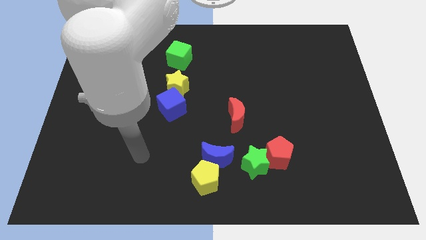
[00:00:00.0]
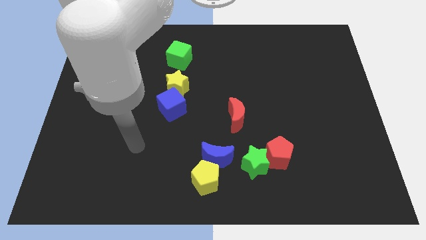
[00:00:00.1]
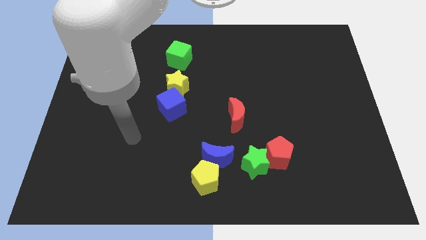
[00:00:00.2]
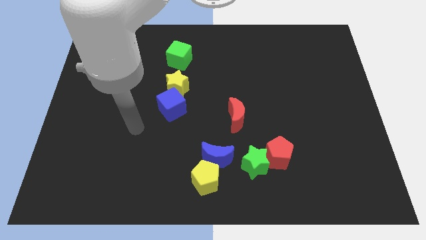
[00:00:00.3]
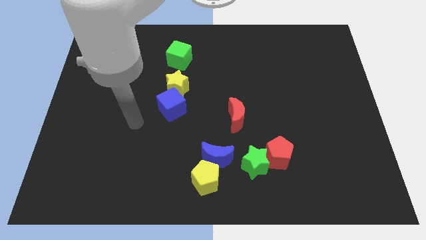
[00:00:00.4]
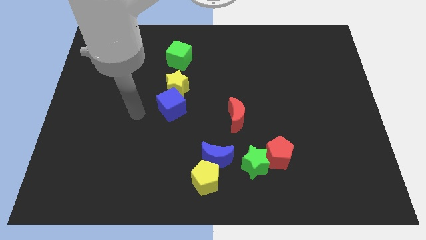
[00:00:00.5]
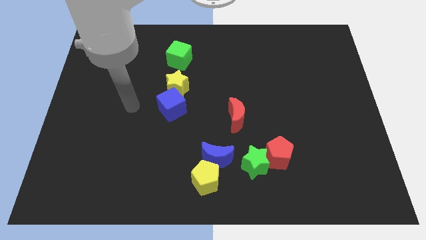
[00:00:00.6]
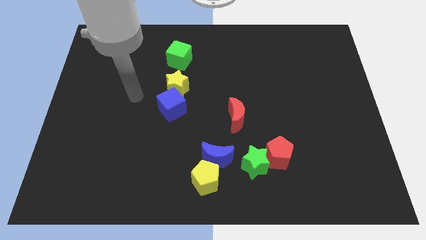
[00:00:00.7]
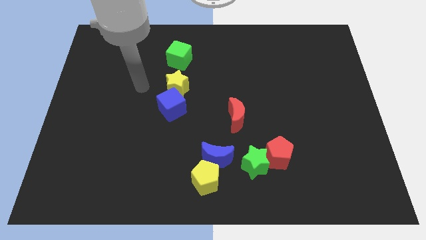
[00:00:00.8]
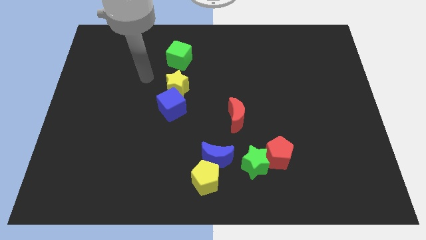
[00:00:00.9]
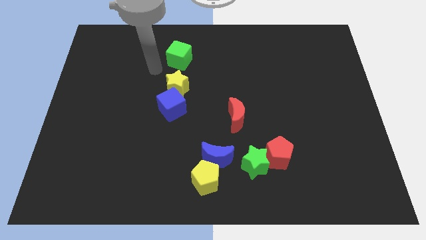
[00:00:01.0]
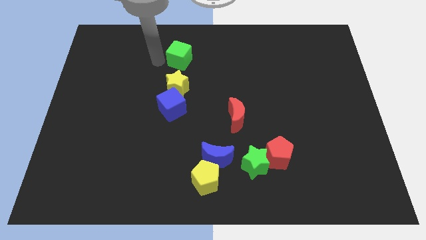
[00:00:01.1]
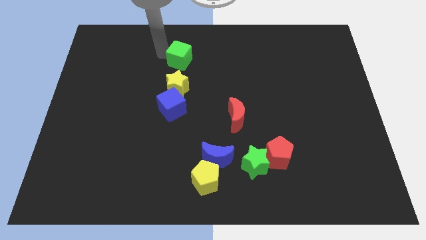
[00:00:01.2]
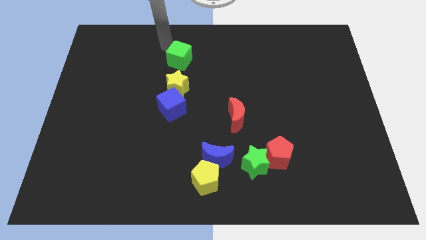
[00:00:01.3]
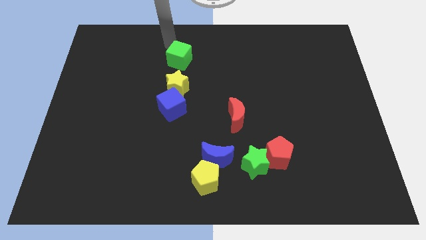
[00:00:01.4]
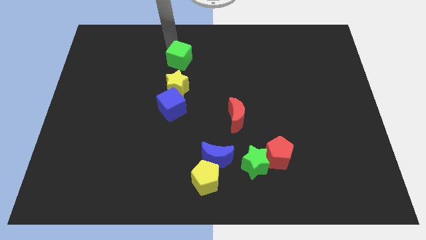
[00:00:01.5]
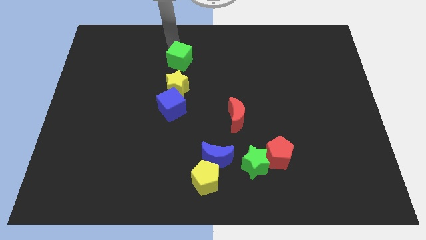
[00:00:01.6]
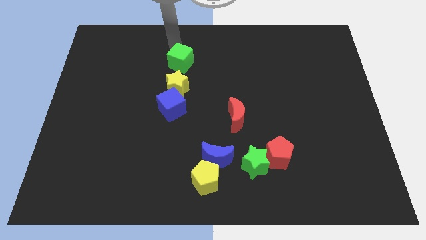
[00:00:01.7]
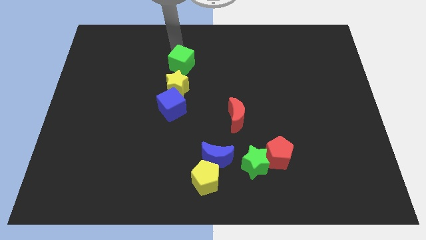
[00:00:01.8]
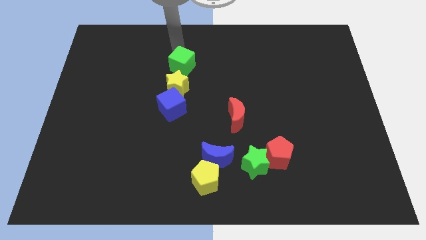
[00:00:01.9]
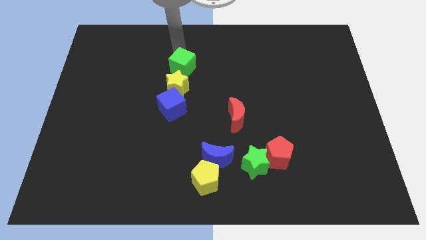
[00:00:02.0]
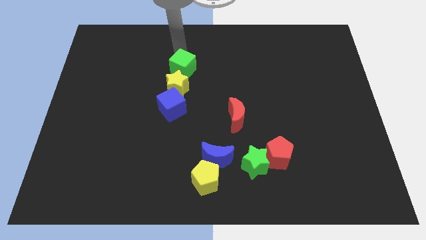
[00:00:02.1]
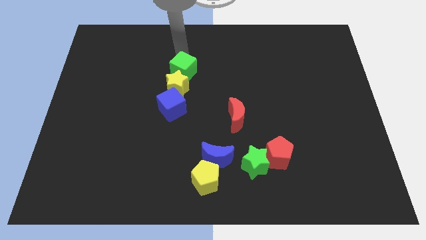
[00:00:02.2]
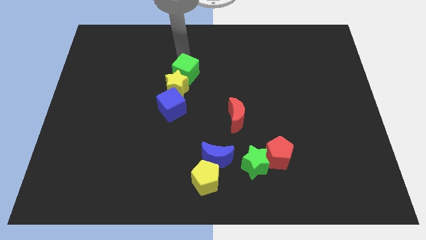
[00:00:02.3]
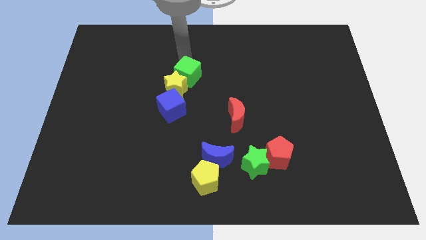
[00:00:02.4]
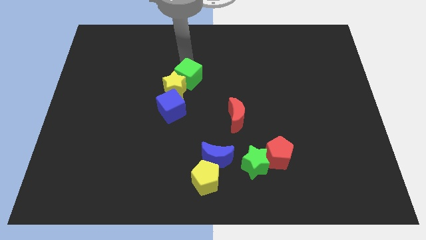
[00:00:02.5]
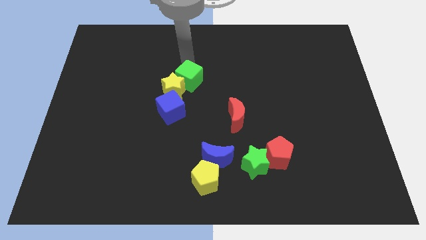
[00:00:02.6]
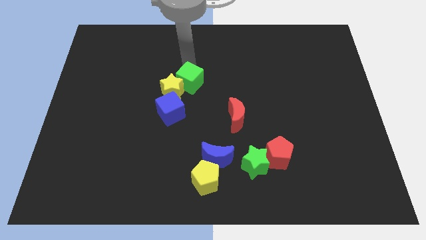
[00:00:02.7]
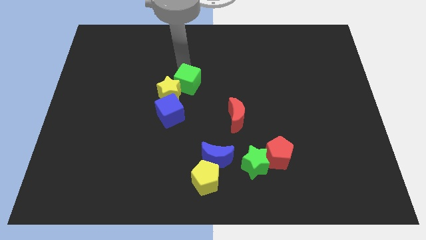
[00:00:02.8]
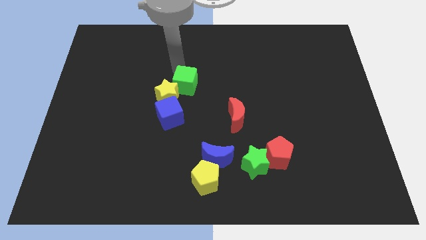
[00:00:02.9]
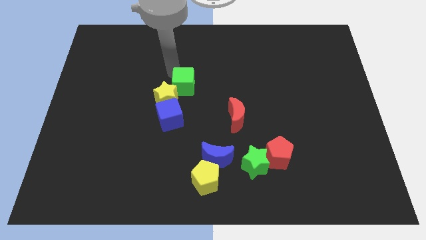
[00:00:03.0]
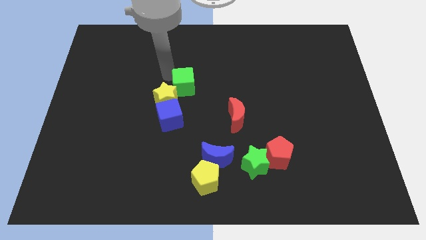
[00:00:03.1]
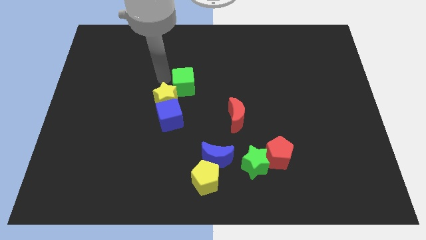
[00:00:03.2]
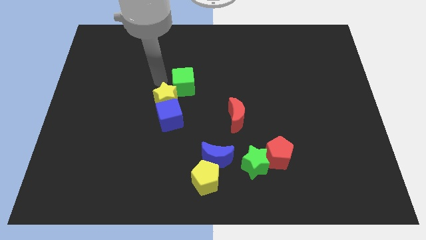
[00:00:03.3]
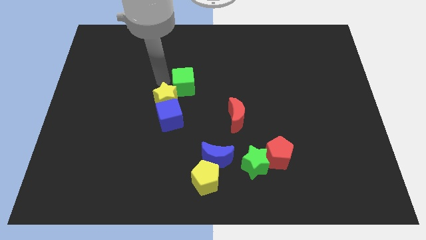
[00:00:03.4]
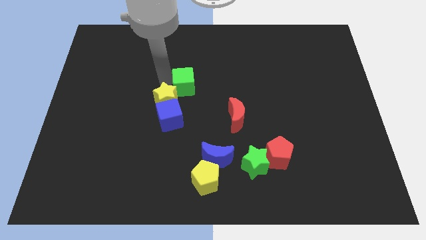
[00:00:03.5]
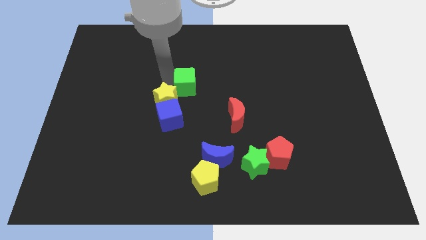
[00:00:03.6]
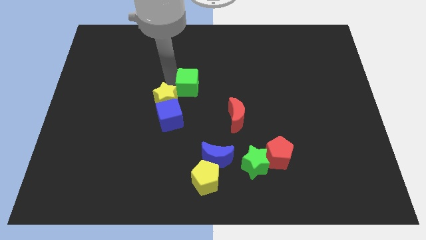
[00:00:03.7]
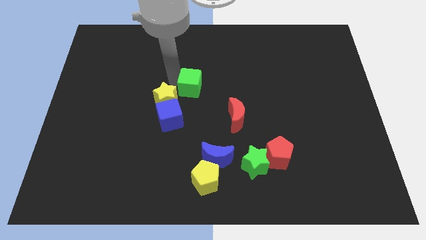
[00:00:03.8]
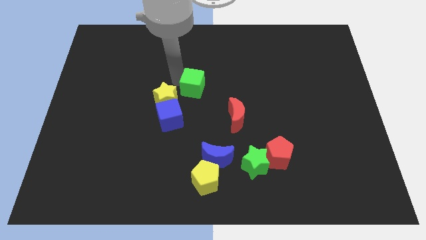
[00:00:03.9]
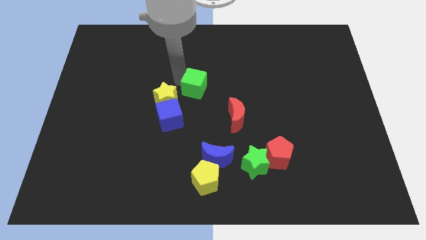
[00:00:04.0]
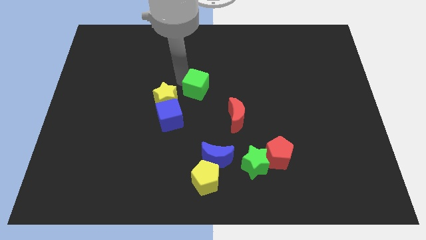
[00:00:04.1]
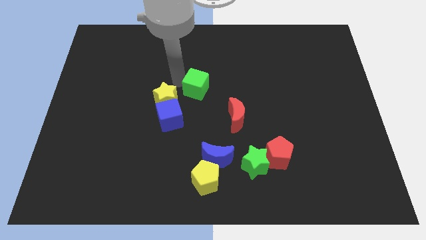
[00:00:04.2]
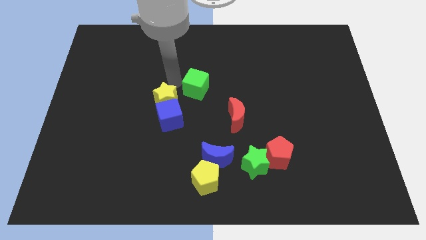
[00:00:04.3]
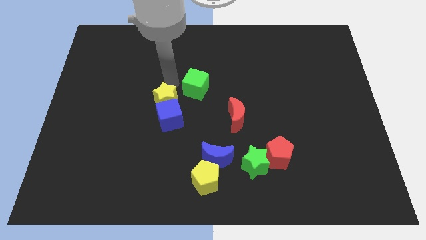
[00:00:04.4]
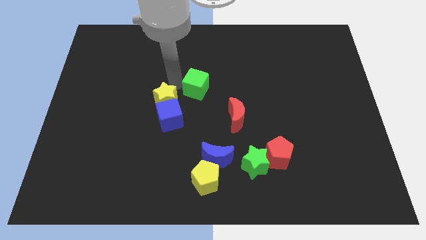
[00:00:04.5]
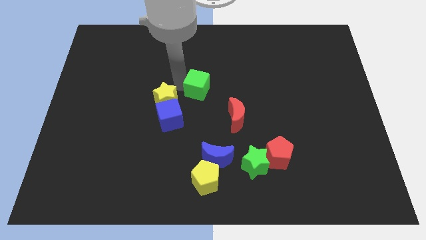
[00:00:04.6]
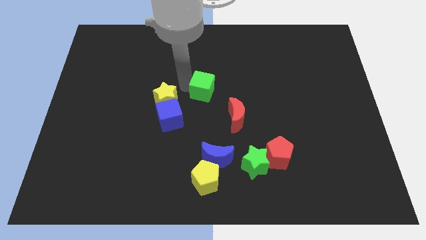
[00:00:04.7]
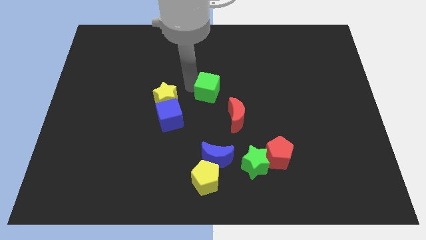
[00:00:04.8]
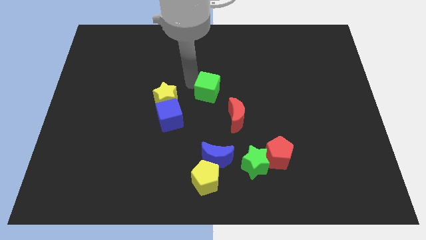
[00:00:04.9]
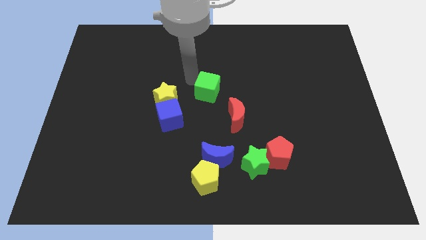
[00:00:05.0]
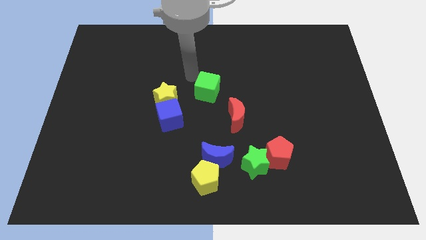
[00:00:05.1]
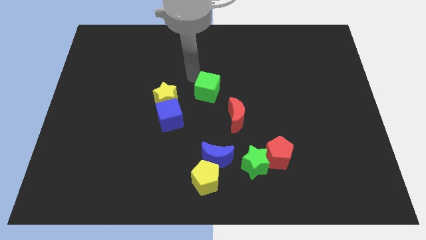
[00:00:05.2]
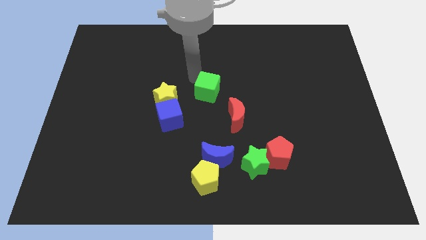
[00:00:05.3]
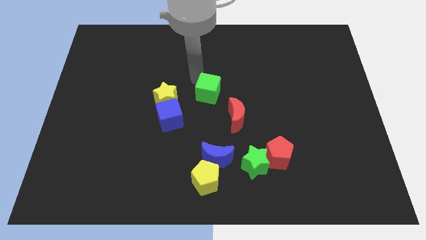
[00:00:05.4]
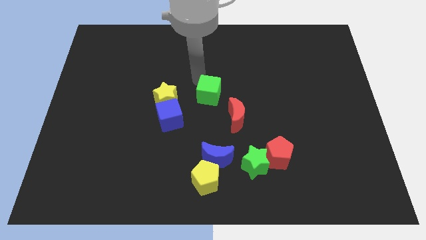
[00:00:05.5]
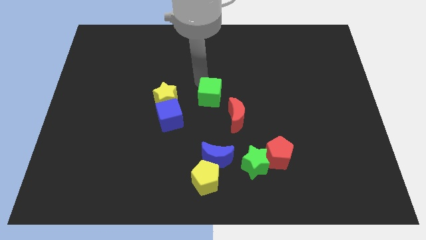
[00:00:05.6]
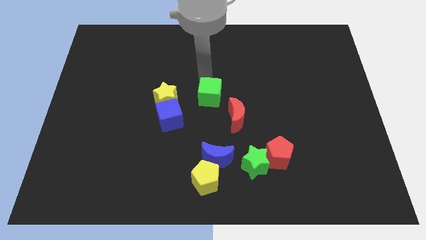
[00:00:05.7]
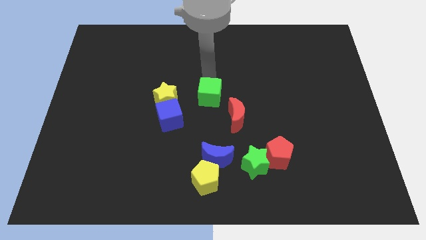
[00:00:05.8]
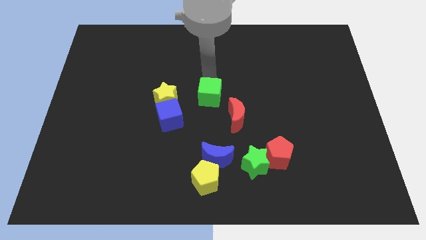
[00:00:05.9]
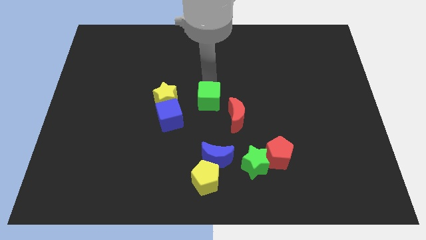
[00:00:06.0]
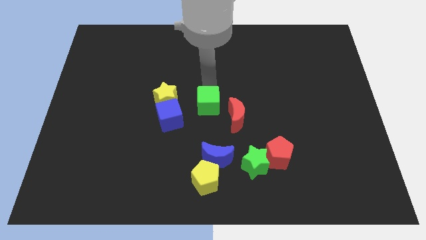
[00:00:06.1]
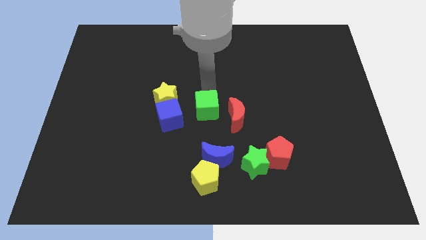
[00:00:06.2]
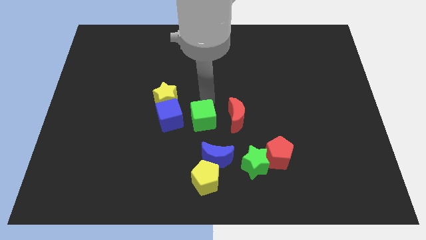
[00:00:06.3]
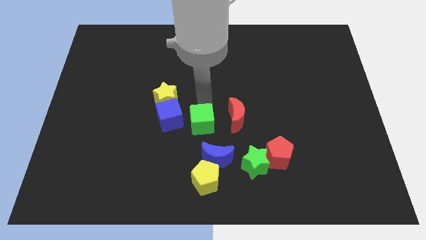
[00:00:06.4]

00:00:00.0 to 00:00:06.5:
put the green cube to the bottom left side of the red moon

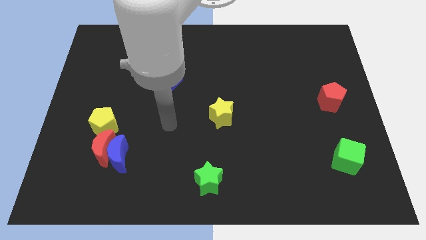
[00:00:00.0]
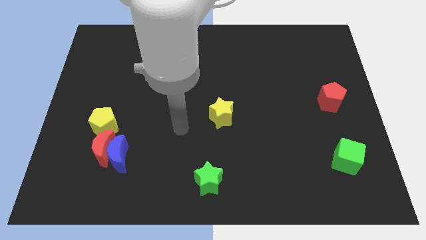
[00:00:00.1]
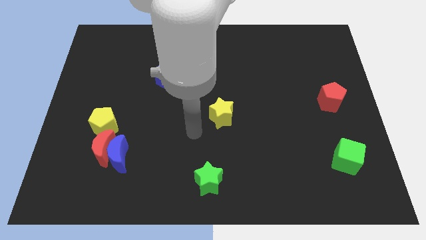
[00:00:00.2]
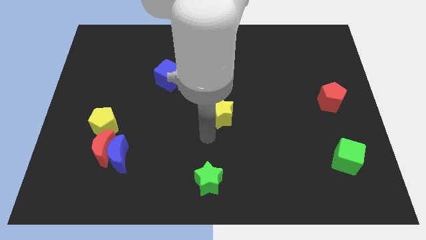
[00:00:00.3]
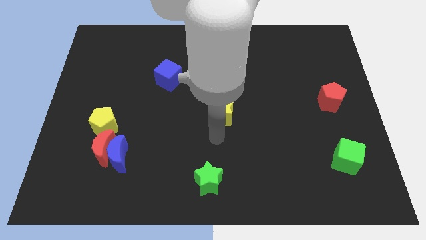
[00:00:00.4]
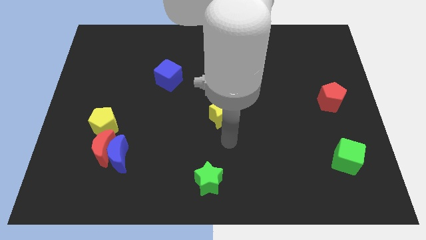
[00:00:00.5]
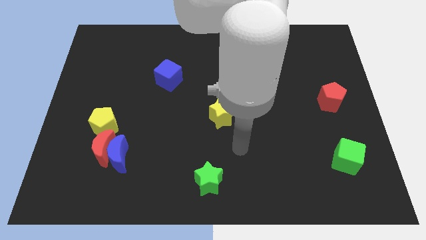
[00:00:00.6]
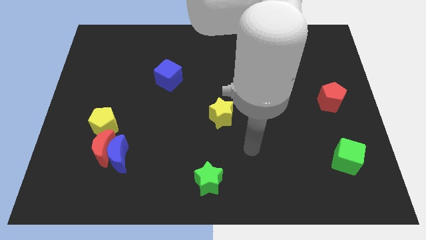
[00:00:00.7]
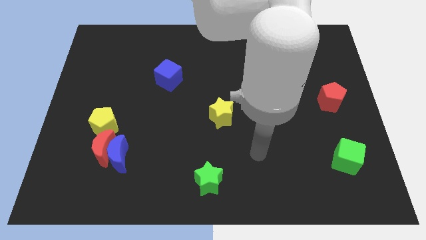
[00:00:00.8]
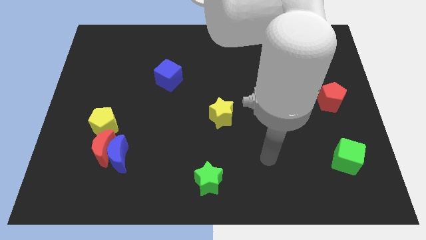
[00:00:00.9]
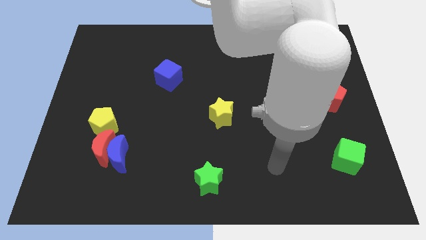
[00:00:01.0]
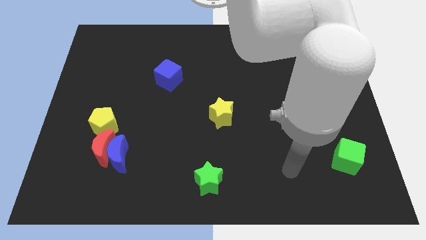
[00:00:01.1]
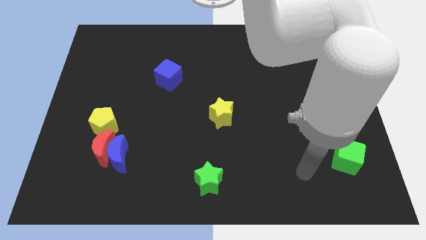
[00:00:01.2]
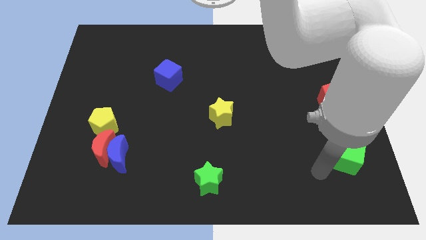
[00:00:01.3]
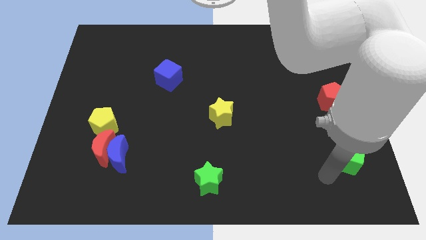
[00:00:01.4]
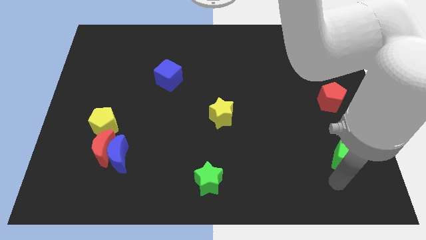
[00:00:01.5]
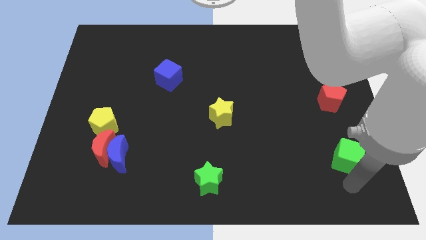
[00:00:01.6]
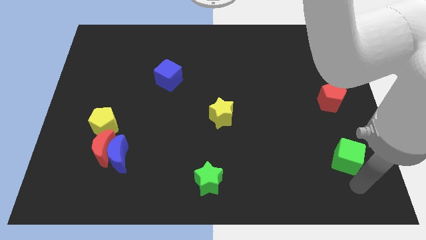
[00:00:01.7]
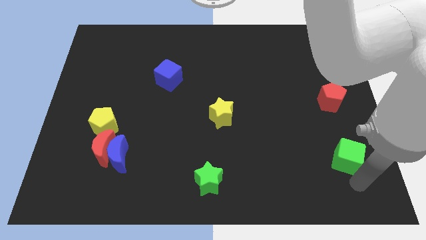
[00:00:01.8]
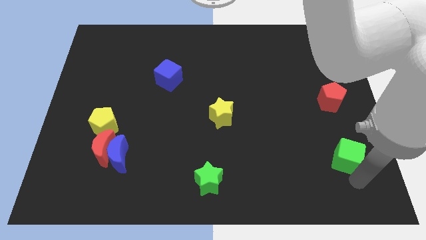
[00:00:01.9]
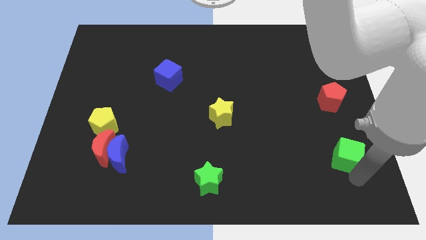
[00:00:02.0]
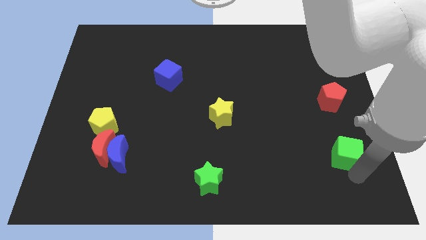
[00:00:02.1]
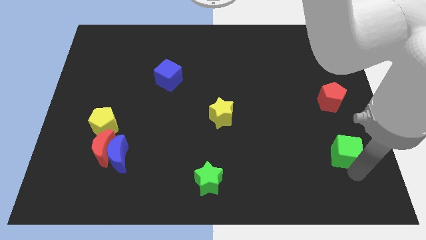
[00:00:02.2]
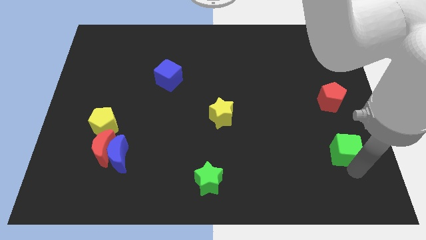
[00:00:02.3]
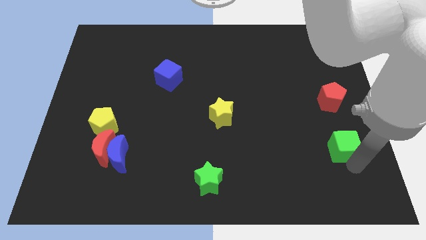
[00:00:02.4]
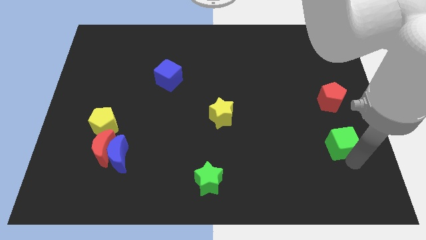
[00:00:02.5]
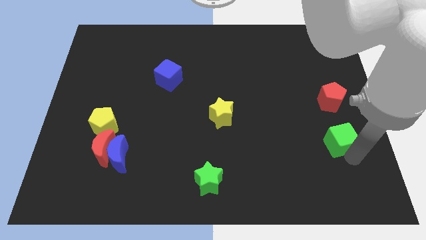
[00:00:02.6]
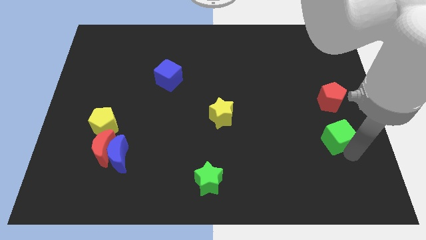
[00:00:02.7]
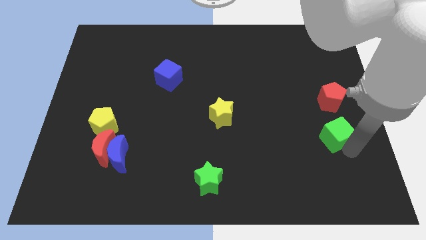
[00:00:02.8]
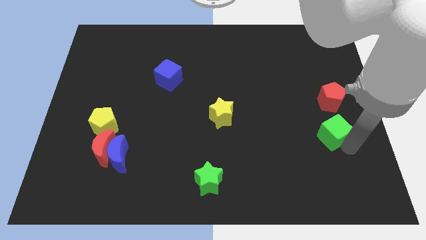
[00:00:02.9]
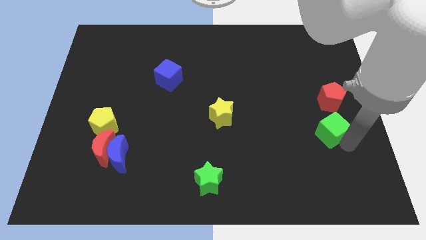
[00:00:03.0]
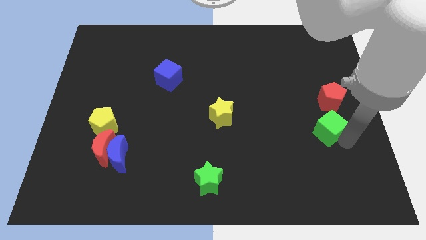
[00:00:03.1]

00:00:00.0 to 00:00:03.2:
slide the green cube to the bottom left of the red pentagon
